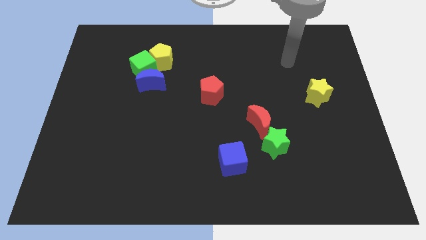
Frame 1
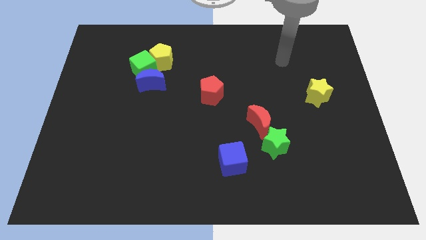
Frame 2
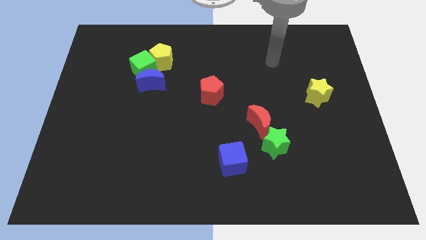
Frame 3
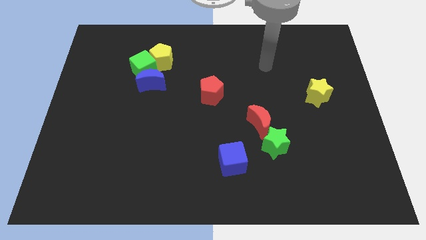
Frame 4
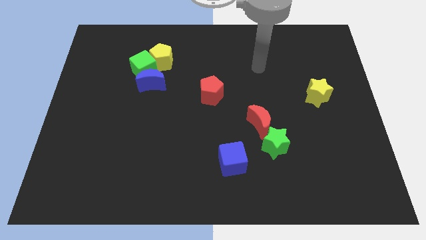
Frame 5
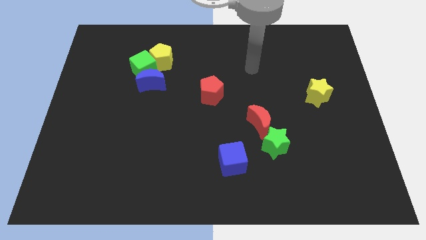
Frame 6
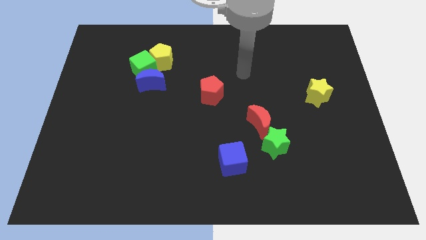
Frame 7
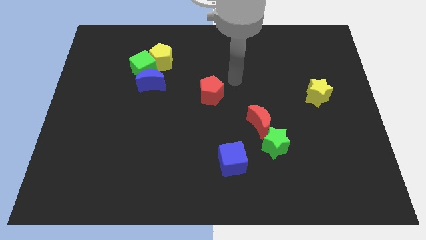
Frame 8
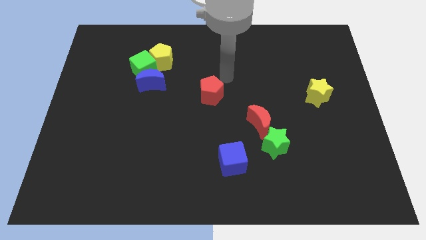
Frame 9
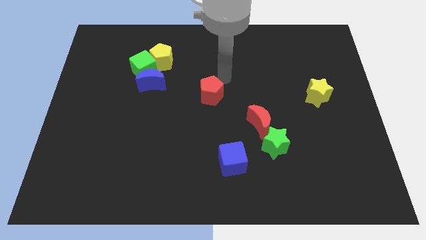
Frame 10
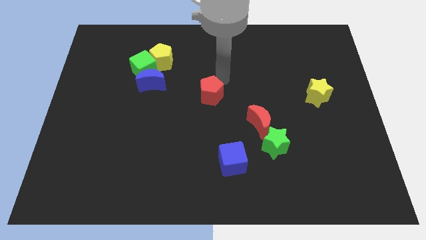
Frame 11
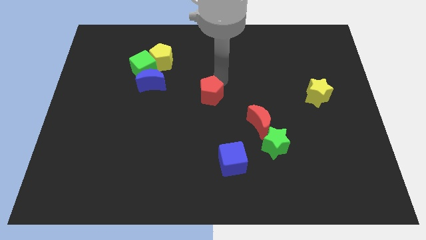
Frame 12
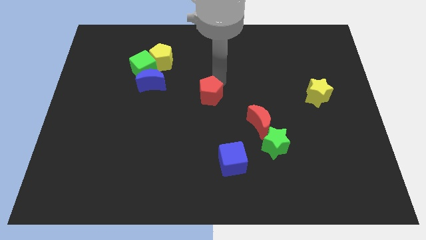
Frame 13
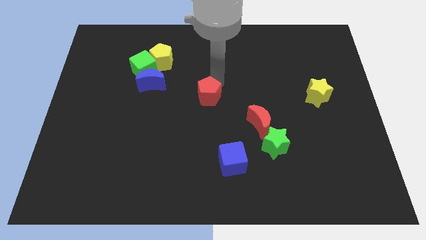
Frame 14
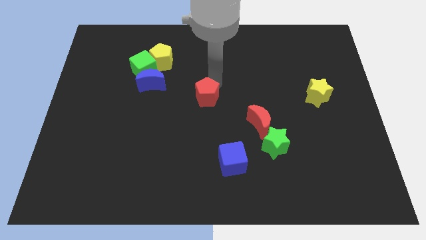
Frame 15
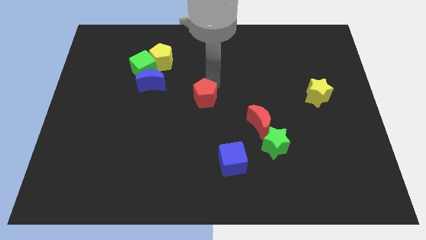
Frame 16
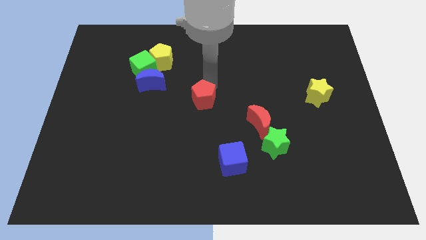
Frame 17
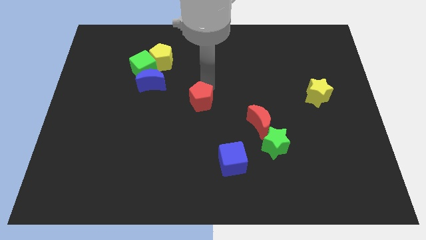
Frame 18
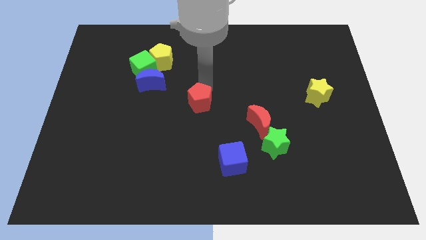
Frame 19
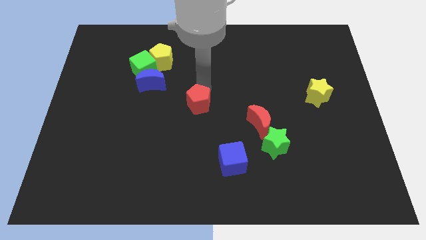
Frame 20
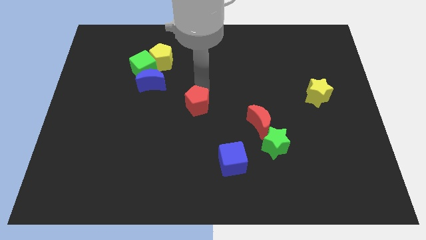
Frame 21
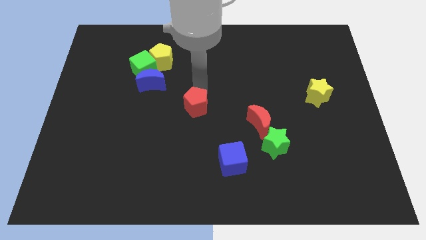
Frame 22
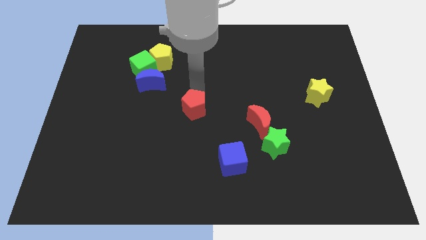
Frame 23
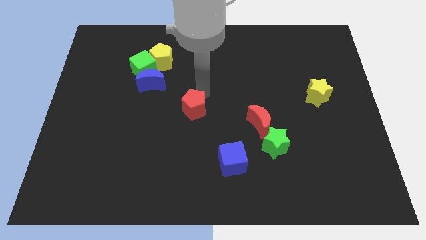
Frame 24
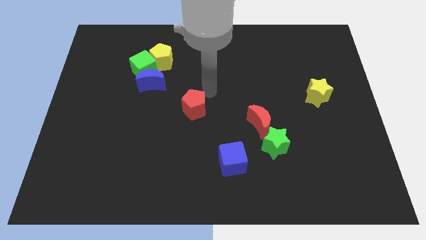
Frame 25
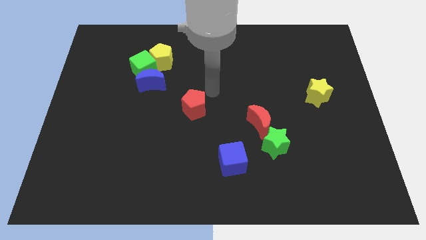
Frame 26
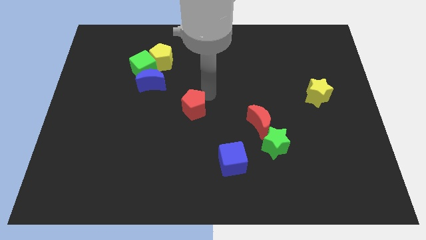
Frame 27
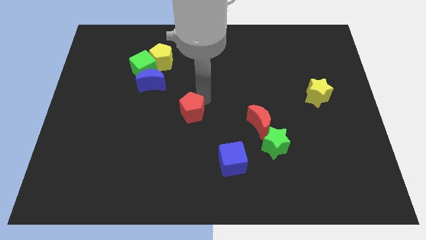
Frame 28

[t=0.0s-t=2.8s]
slightly slide the red pentagon downwards and to the left diagonally

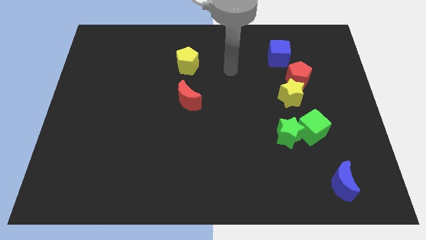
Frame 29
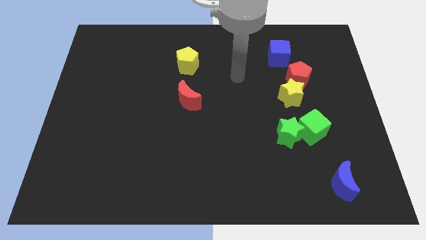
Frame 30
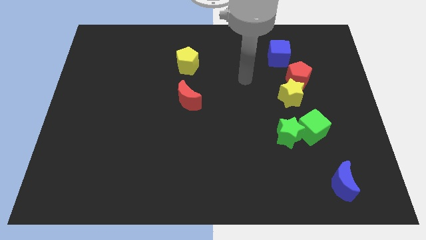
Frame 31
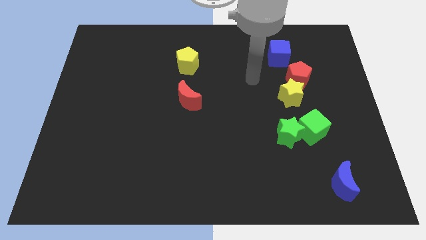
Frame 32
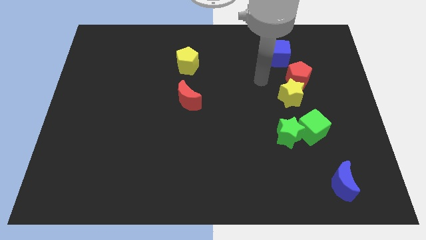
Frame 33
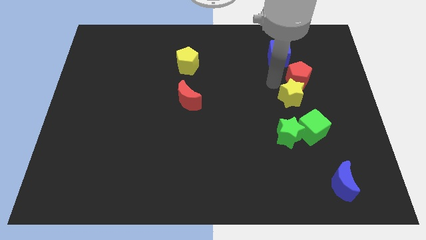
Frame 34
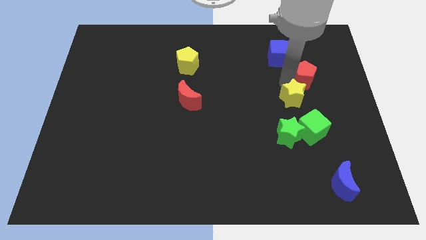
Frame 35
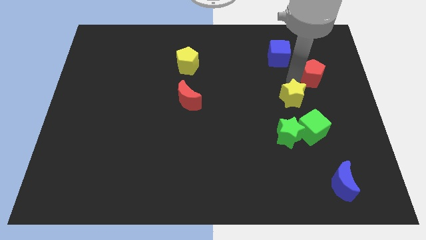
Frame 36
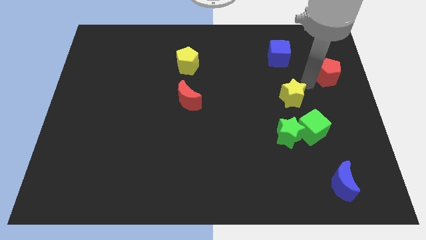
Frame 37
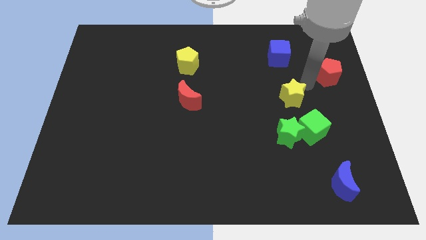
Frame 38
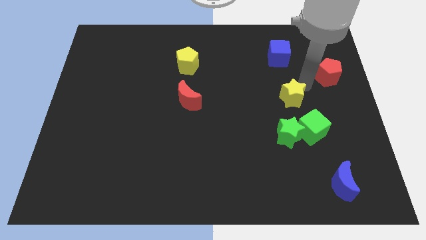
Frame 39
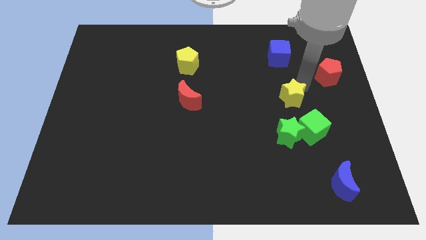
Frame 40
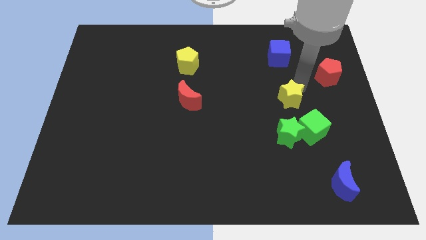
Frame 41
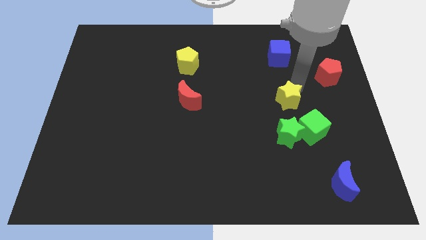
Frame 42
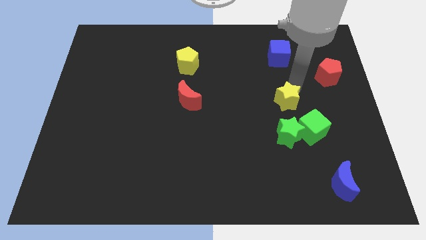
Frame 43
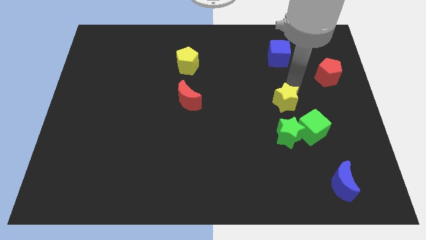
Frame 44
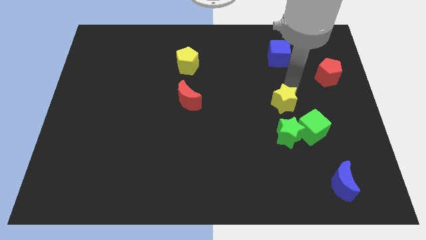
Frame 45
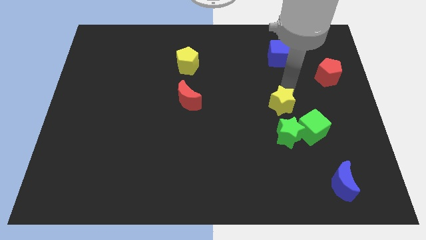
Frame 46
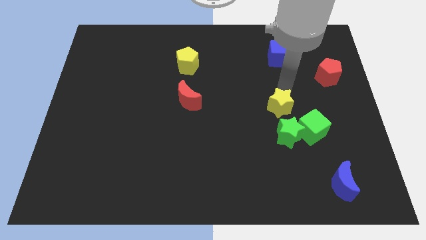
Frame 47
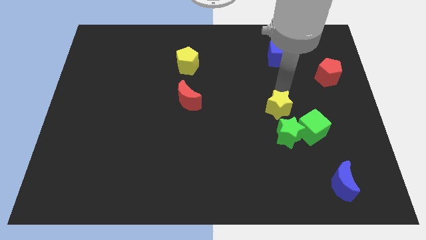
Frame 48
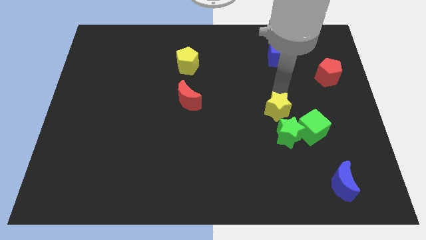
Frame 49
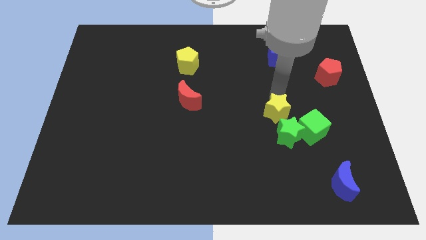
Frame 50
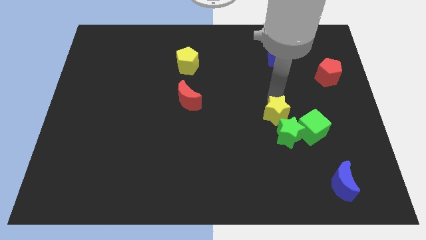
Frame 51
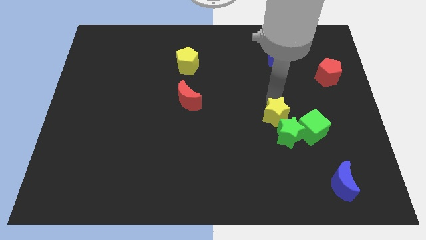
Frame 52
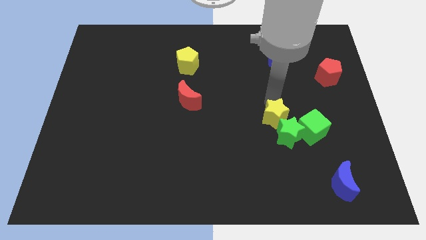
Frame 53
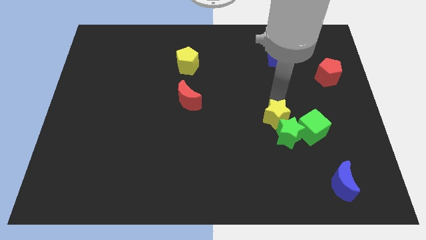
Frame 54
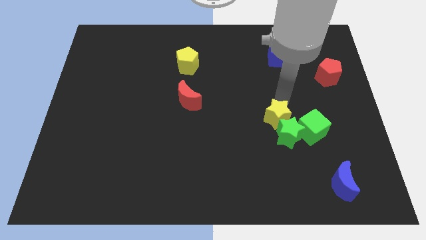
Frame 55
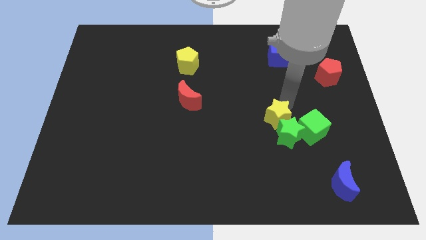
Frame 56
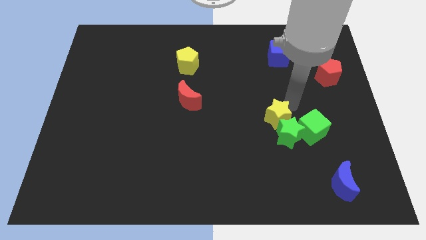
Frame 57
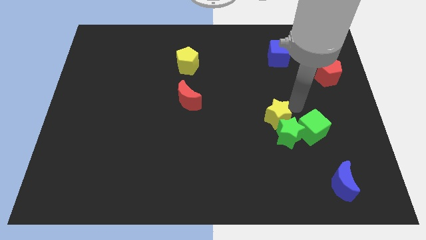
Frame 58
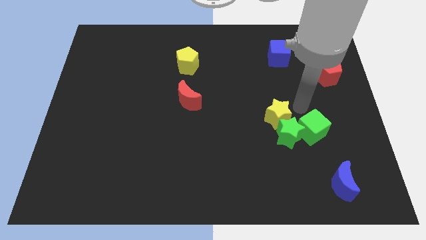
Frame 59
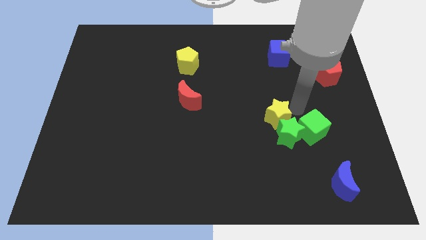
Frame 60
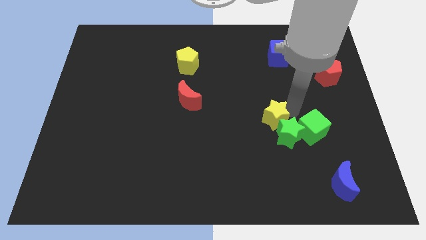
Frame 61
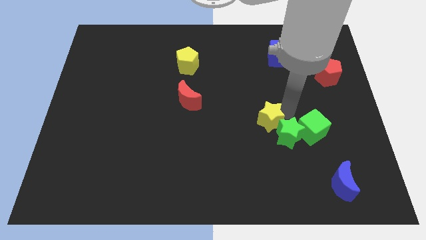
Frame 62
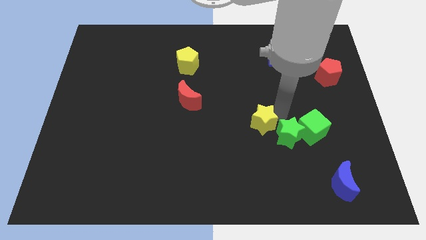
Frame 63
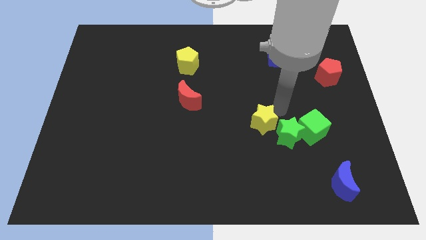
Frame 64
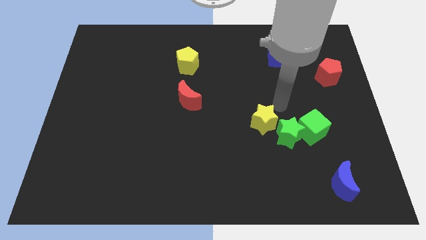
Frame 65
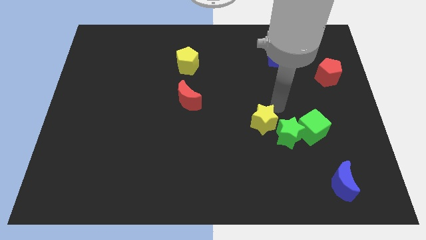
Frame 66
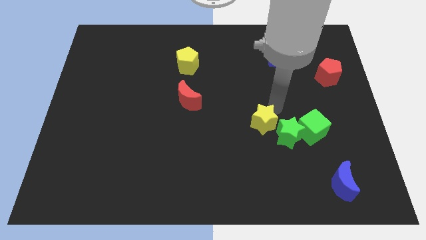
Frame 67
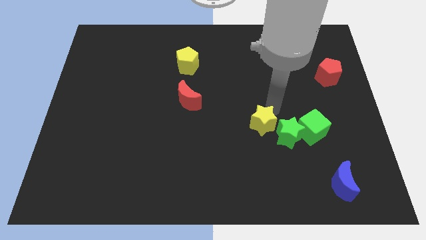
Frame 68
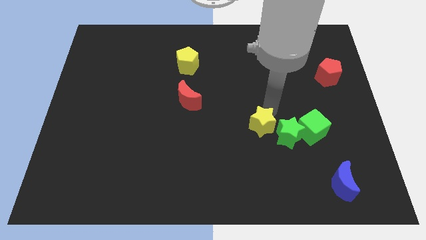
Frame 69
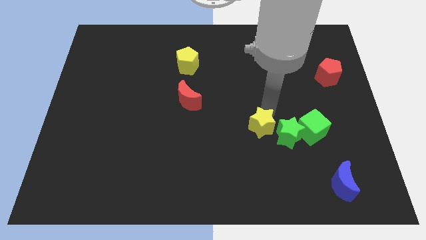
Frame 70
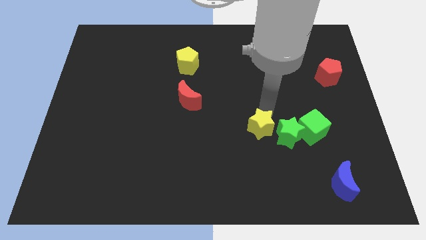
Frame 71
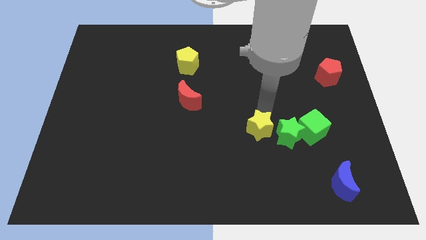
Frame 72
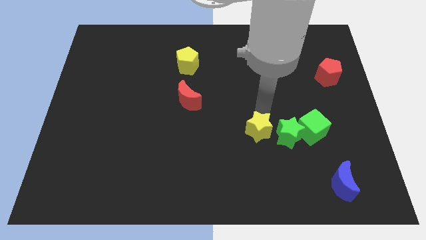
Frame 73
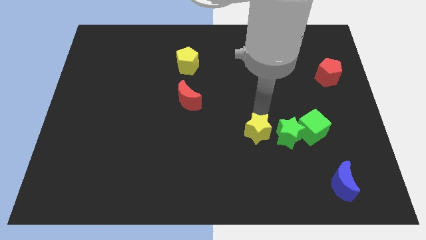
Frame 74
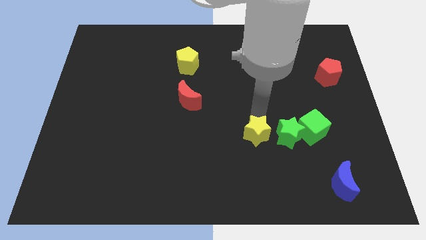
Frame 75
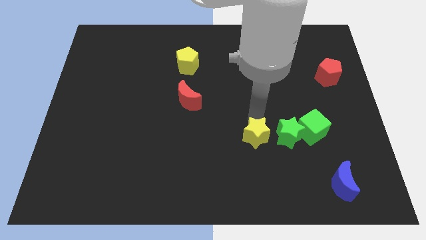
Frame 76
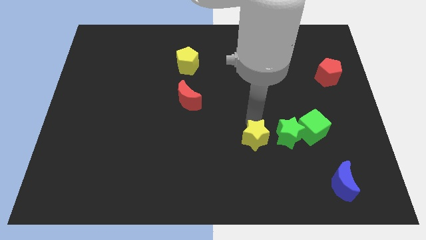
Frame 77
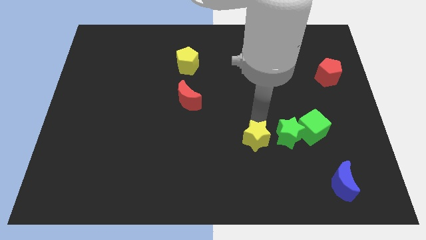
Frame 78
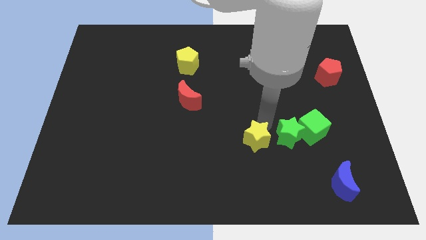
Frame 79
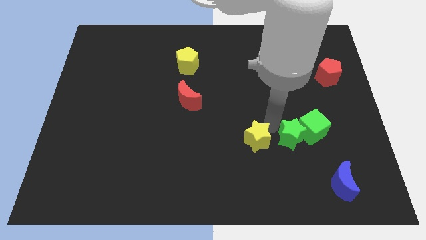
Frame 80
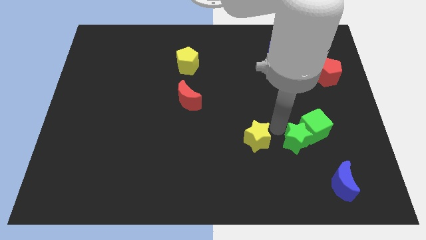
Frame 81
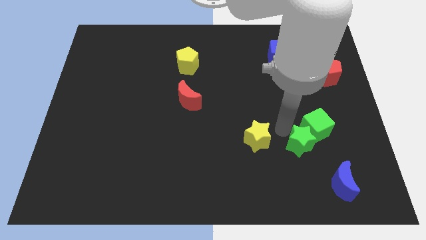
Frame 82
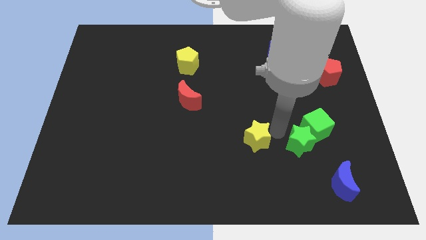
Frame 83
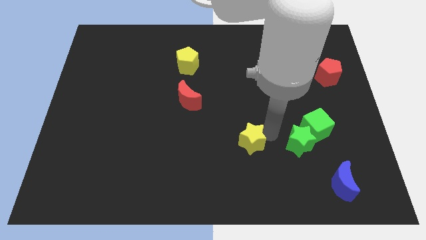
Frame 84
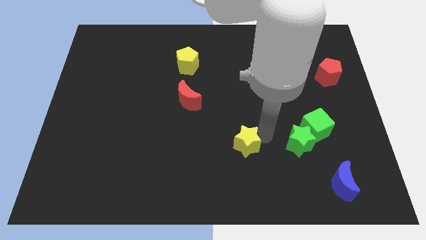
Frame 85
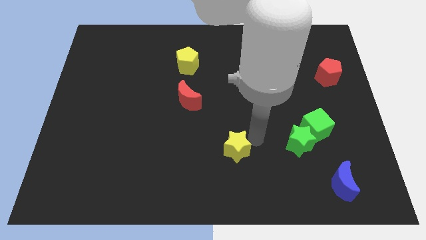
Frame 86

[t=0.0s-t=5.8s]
move the yellow star down and to the left diagonally
